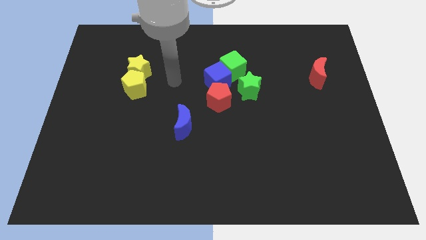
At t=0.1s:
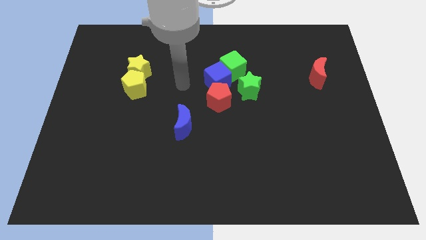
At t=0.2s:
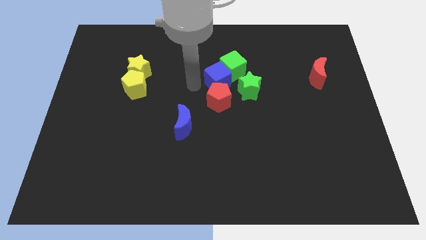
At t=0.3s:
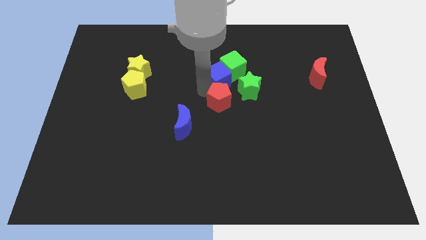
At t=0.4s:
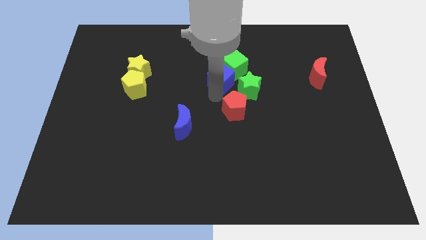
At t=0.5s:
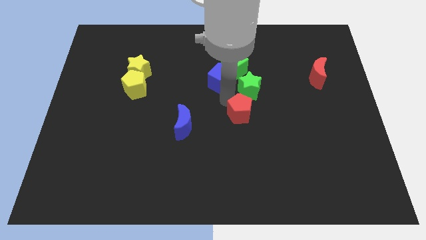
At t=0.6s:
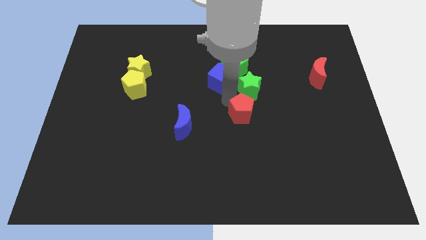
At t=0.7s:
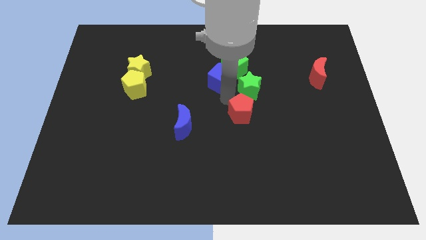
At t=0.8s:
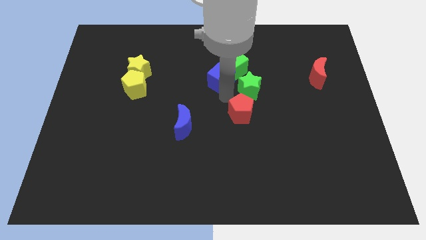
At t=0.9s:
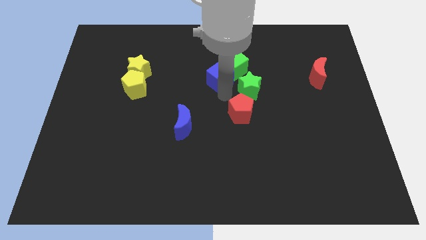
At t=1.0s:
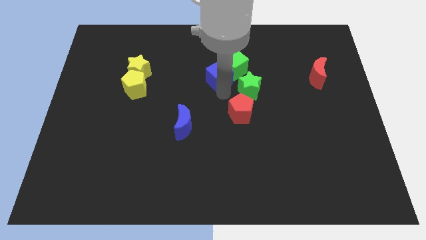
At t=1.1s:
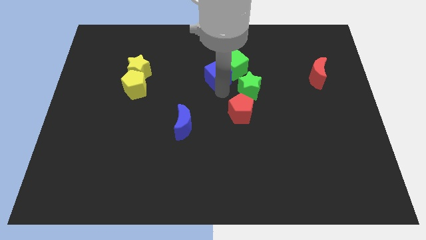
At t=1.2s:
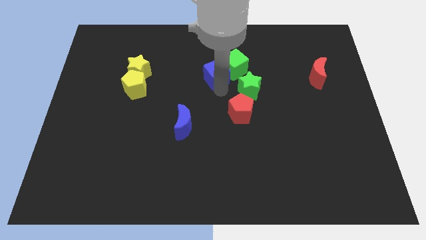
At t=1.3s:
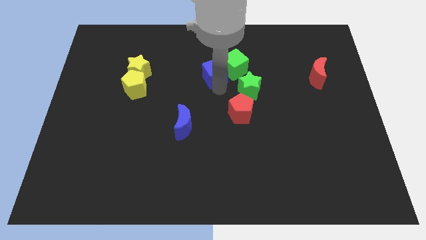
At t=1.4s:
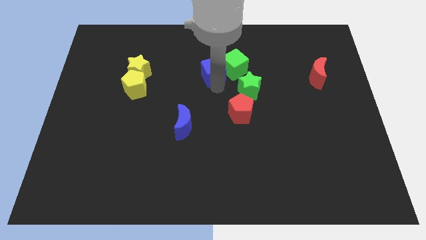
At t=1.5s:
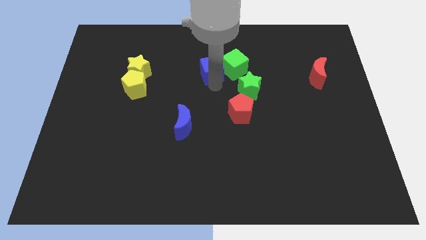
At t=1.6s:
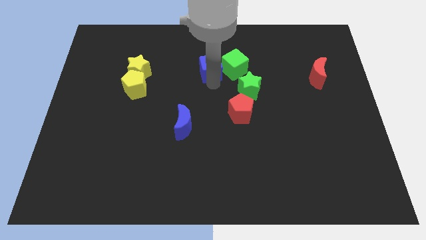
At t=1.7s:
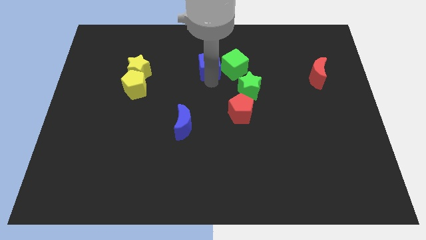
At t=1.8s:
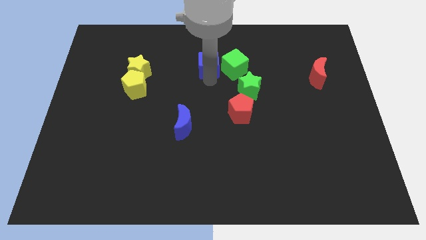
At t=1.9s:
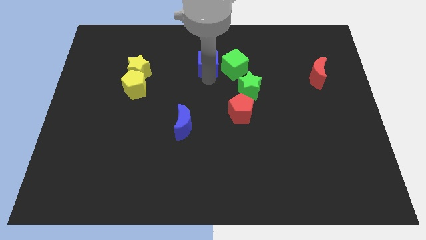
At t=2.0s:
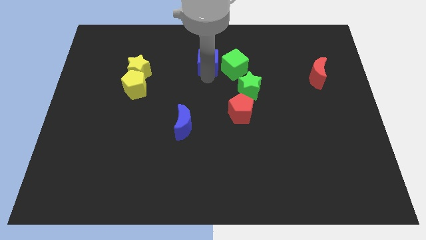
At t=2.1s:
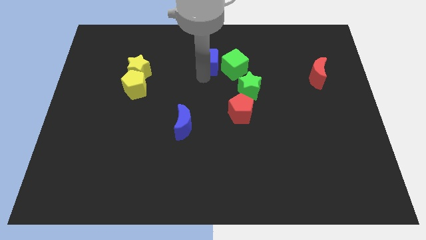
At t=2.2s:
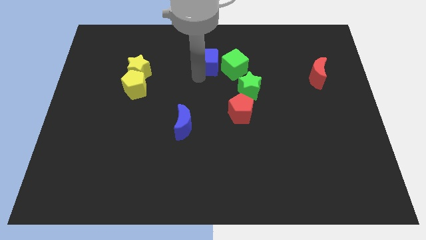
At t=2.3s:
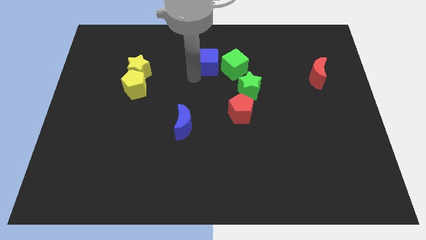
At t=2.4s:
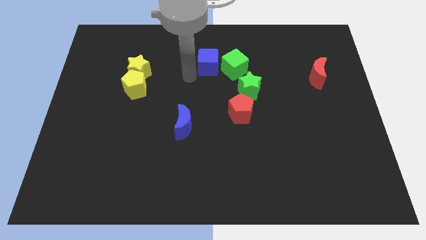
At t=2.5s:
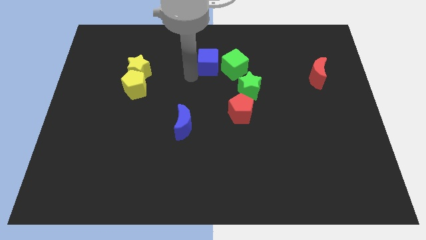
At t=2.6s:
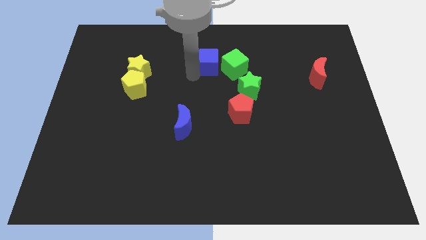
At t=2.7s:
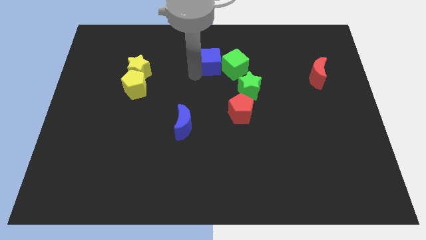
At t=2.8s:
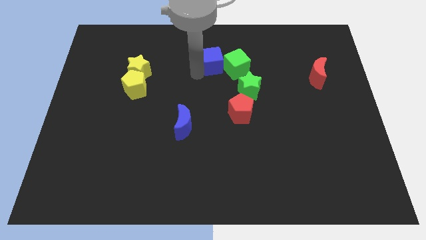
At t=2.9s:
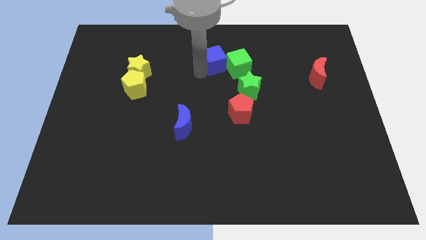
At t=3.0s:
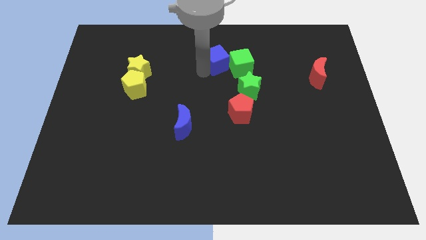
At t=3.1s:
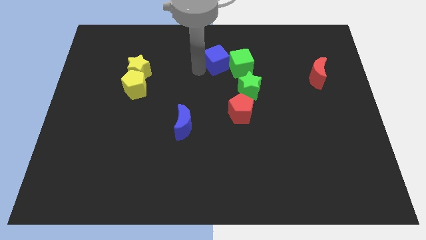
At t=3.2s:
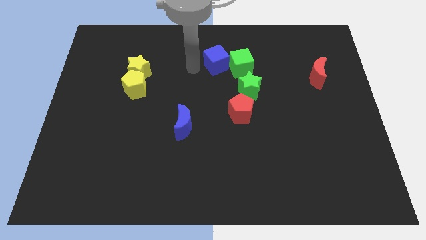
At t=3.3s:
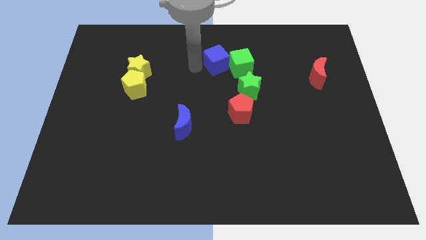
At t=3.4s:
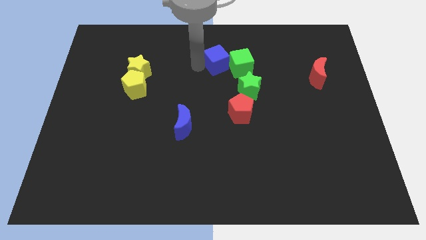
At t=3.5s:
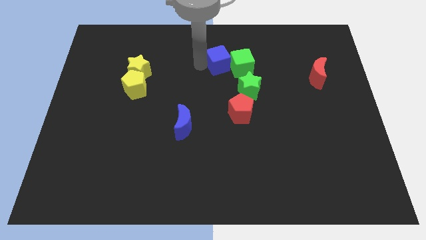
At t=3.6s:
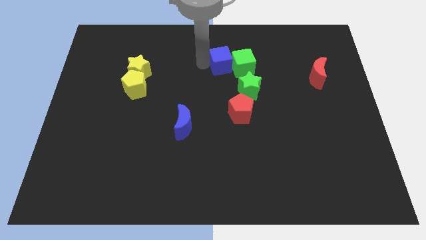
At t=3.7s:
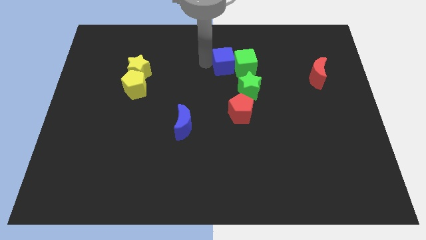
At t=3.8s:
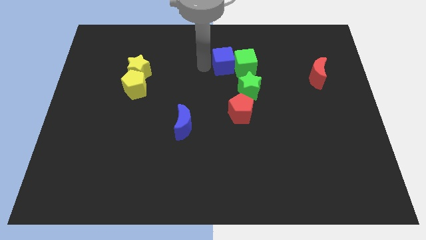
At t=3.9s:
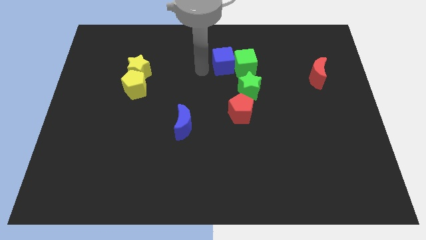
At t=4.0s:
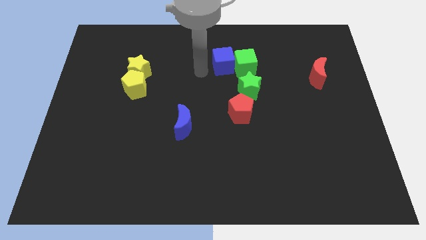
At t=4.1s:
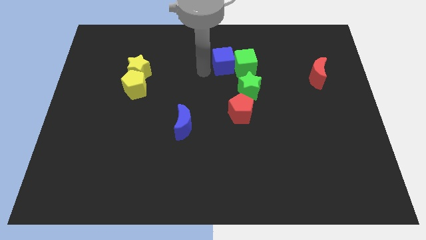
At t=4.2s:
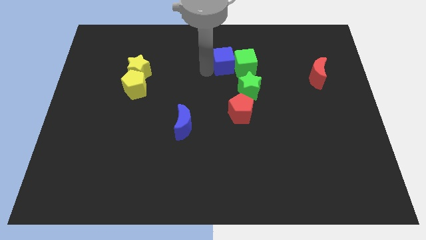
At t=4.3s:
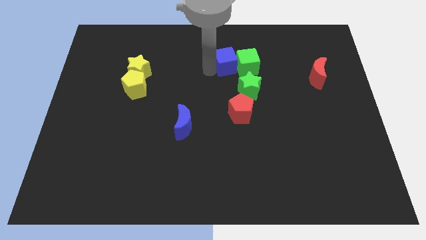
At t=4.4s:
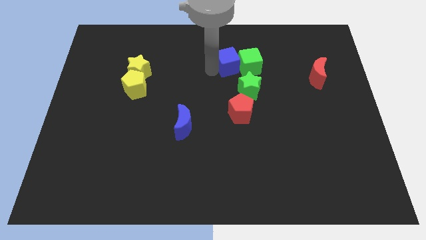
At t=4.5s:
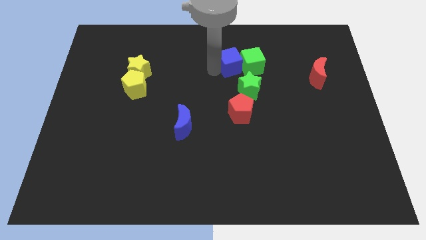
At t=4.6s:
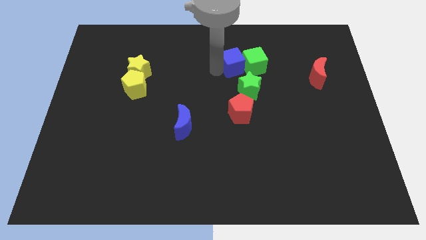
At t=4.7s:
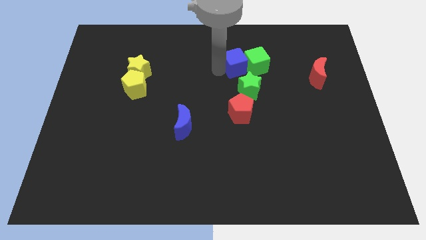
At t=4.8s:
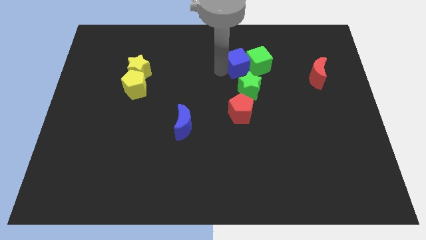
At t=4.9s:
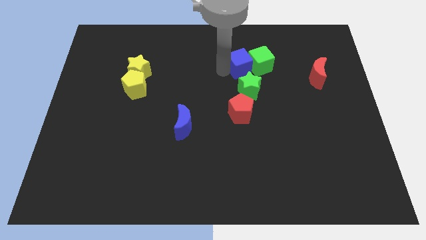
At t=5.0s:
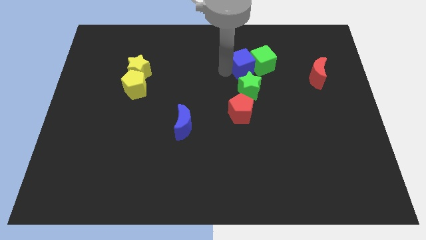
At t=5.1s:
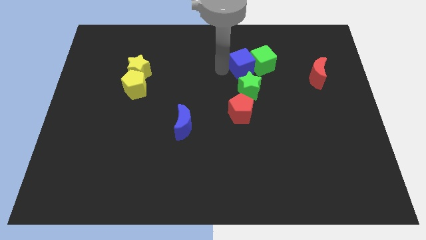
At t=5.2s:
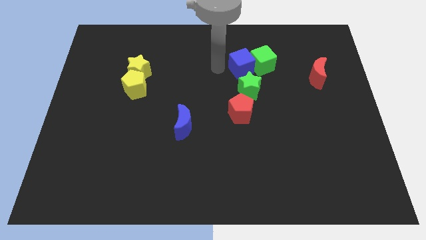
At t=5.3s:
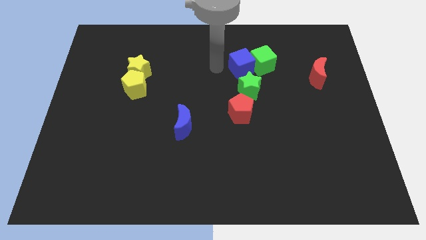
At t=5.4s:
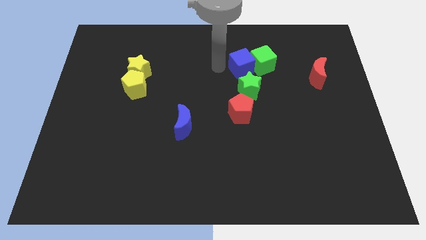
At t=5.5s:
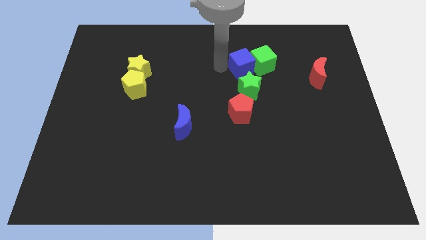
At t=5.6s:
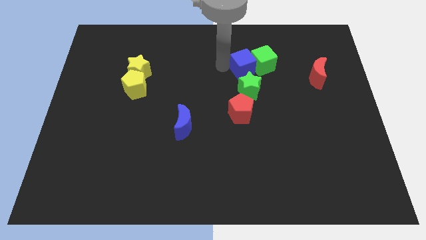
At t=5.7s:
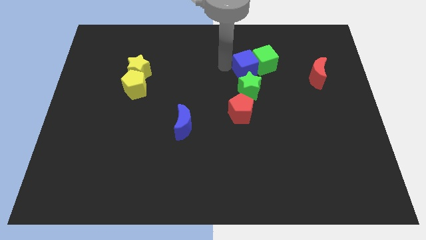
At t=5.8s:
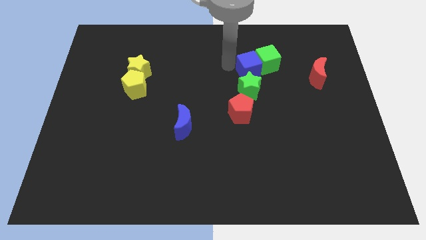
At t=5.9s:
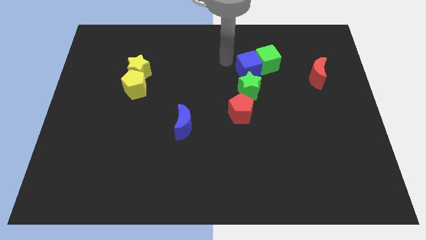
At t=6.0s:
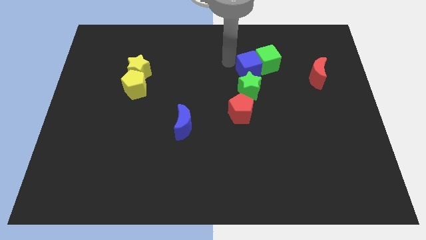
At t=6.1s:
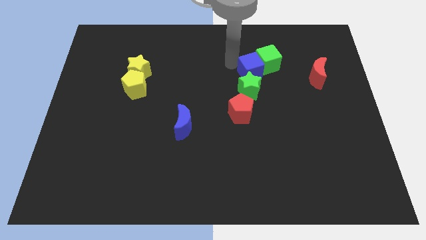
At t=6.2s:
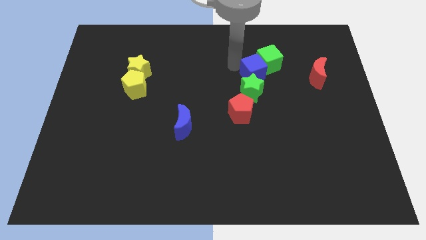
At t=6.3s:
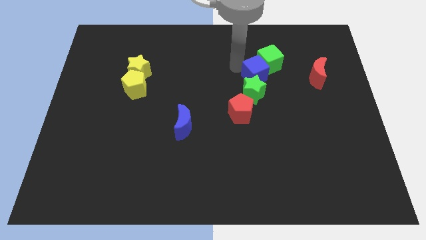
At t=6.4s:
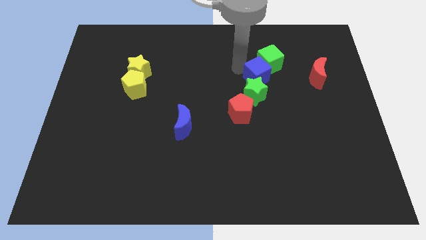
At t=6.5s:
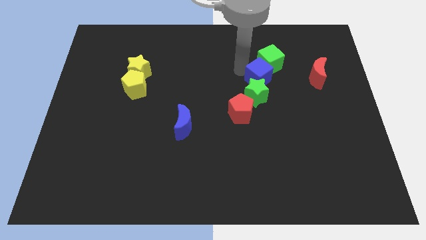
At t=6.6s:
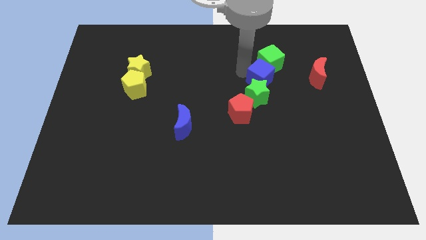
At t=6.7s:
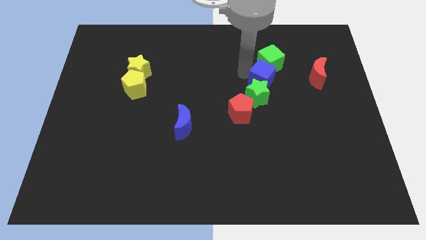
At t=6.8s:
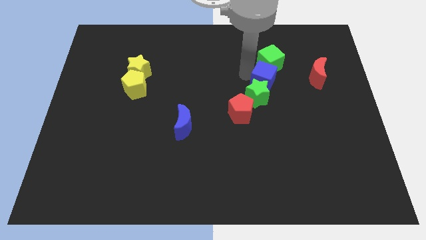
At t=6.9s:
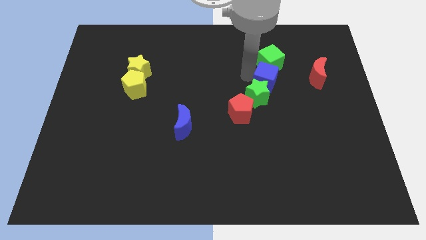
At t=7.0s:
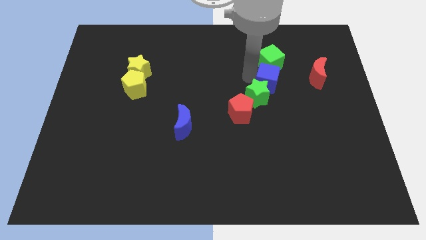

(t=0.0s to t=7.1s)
move the blue cube just right of the green star
